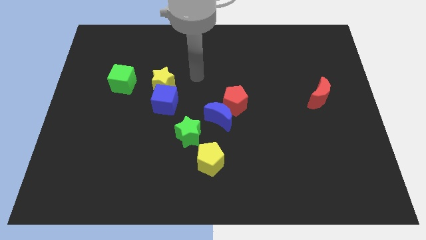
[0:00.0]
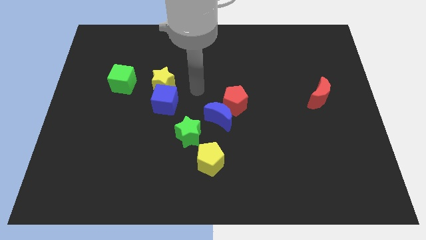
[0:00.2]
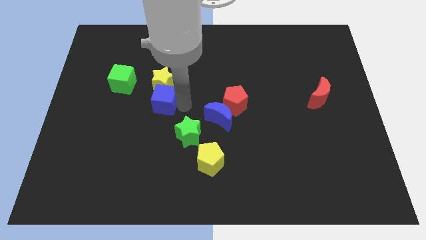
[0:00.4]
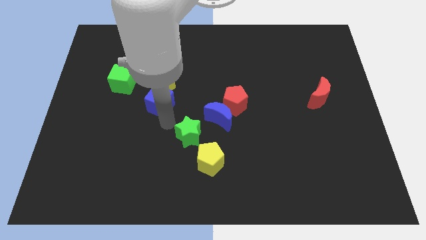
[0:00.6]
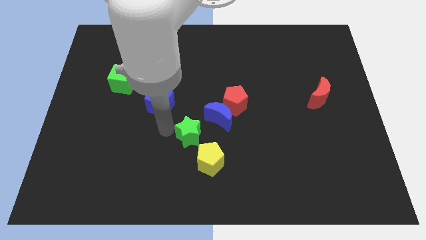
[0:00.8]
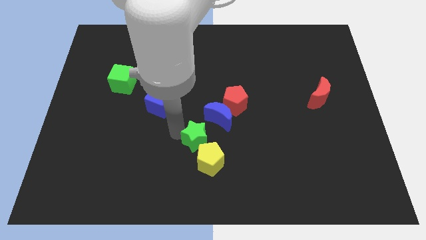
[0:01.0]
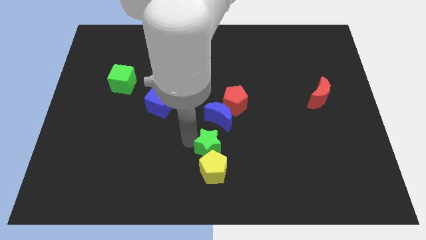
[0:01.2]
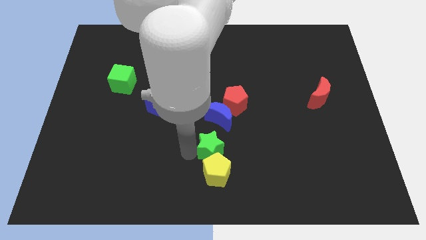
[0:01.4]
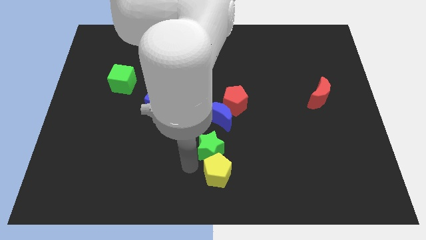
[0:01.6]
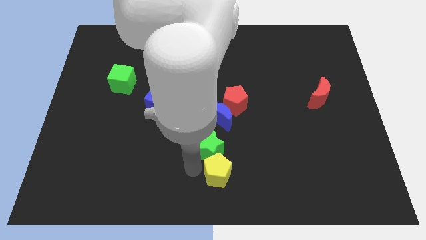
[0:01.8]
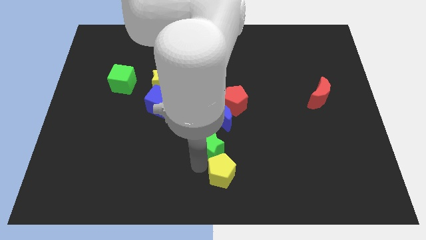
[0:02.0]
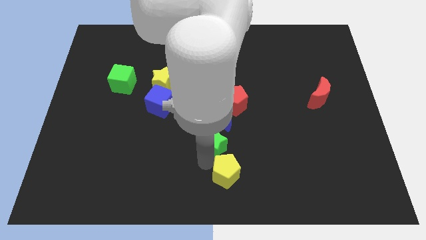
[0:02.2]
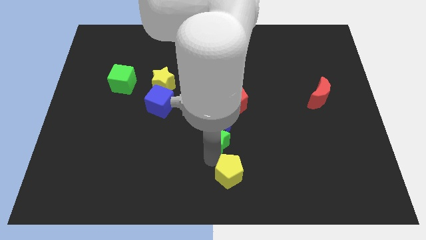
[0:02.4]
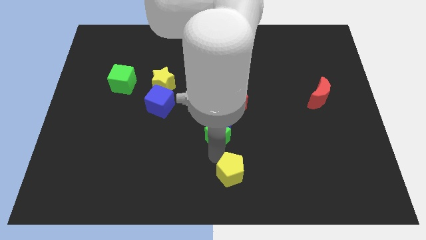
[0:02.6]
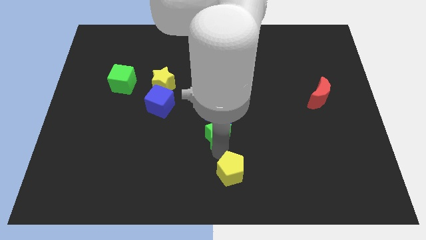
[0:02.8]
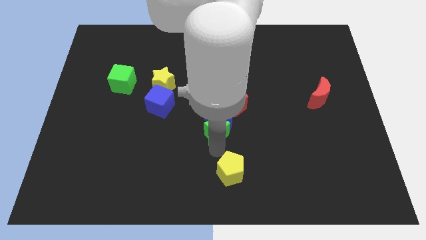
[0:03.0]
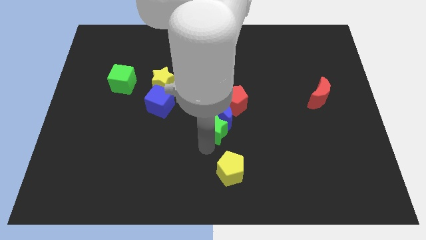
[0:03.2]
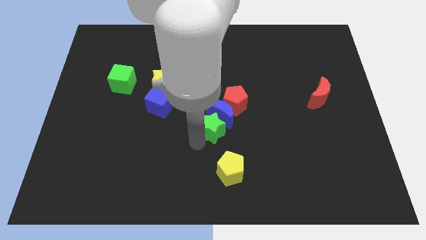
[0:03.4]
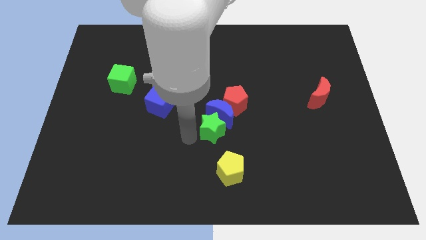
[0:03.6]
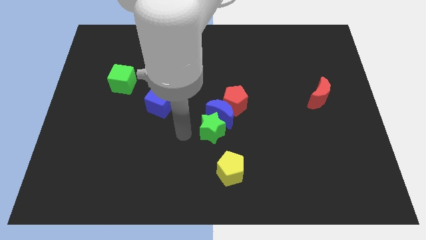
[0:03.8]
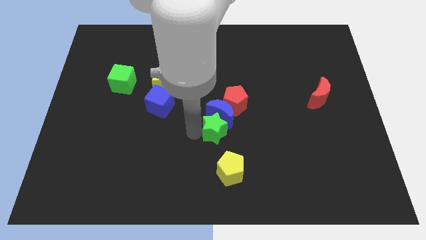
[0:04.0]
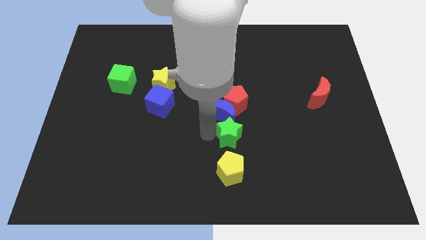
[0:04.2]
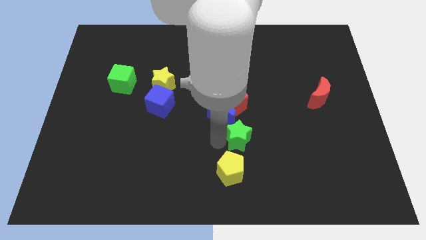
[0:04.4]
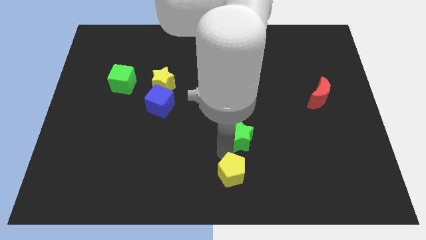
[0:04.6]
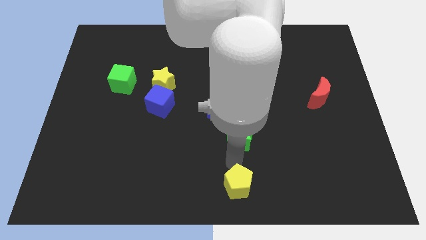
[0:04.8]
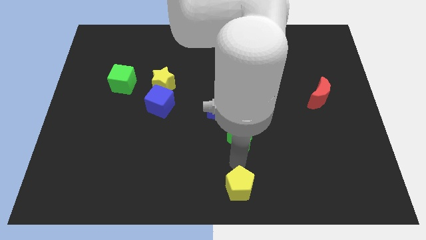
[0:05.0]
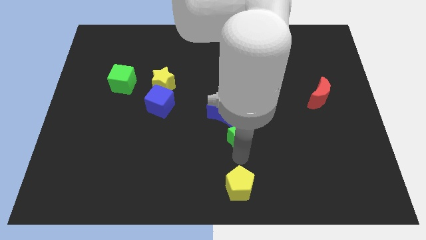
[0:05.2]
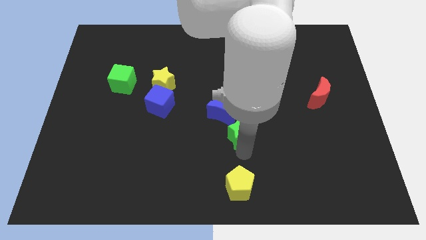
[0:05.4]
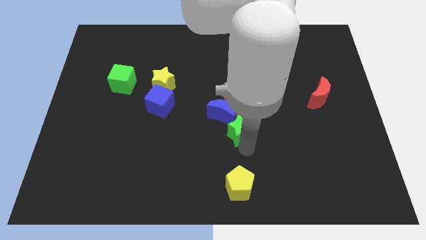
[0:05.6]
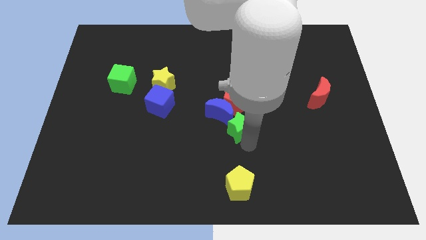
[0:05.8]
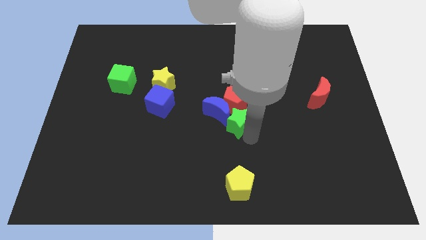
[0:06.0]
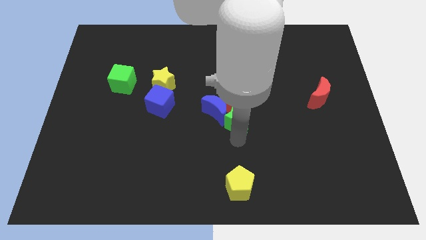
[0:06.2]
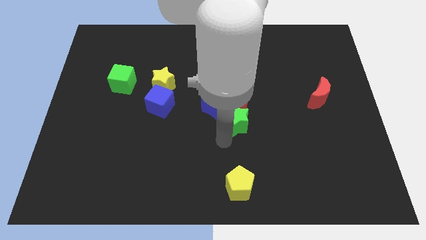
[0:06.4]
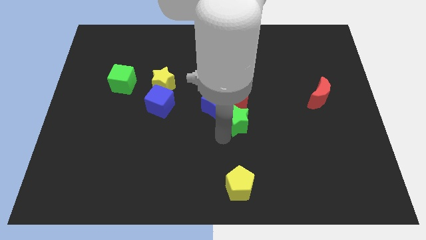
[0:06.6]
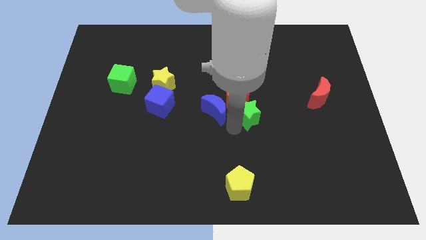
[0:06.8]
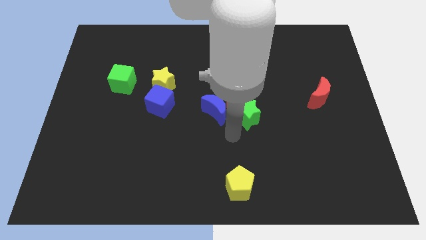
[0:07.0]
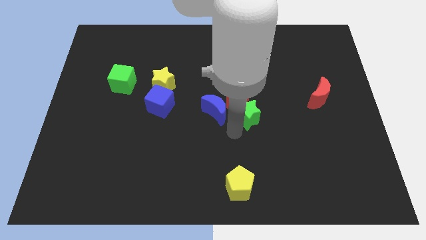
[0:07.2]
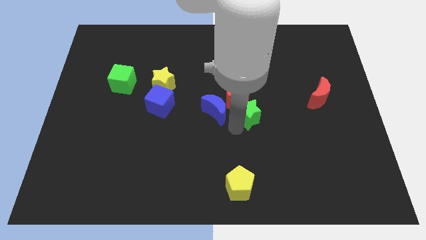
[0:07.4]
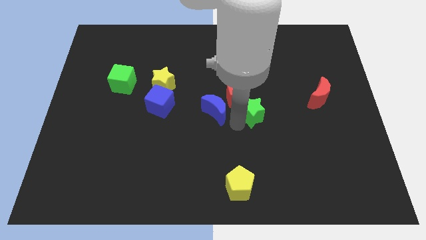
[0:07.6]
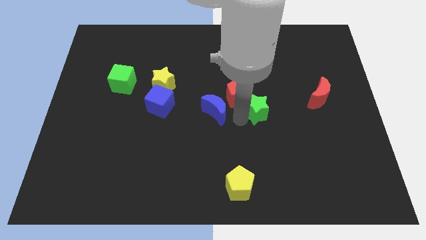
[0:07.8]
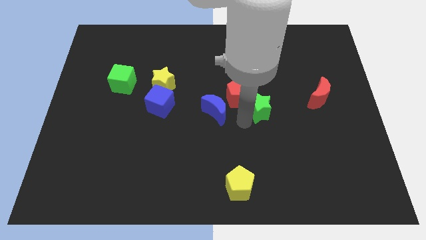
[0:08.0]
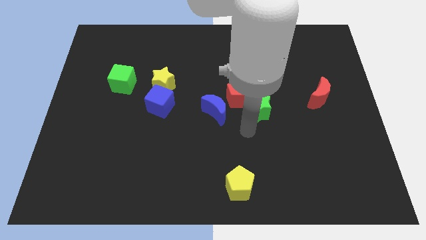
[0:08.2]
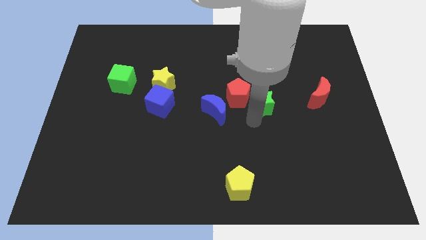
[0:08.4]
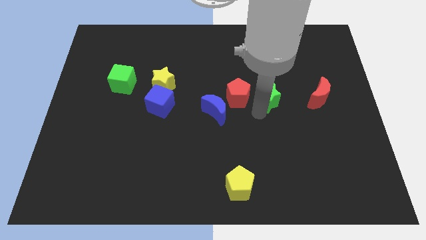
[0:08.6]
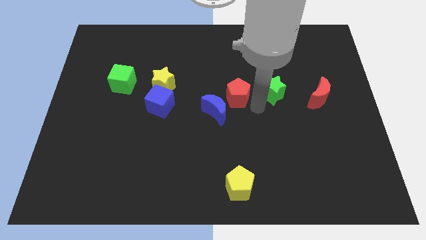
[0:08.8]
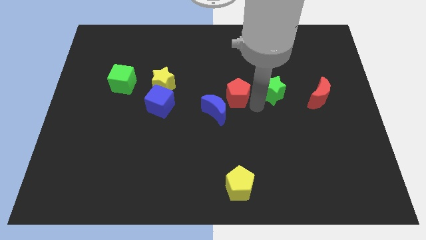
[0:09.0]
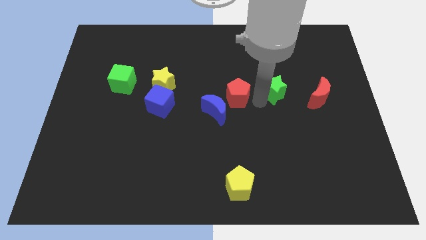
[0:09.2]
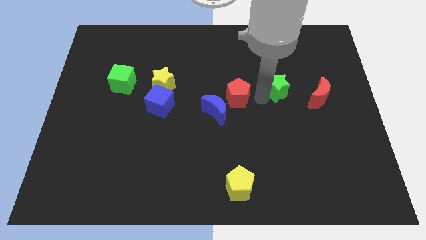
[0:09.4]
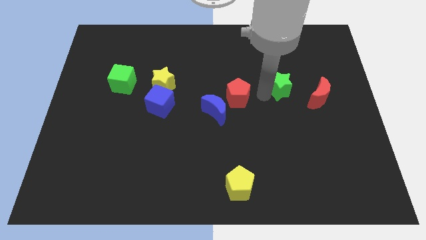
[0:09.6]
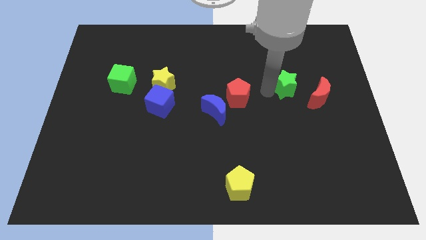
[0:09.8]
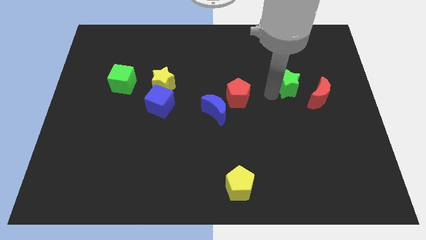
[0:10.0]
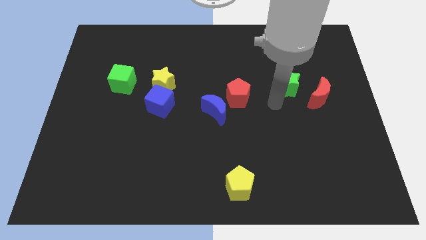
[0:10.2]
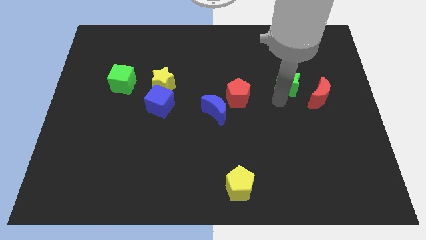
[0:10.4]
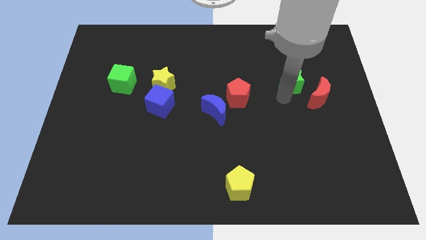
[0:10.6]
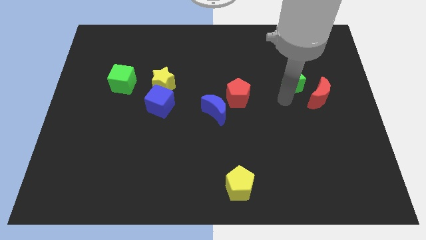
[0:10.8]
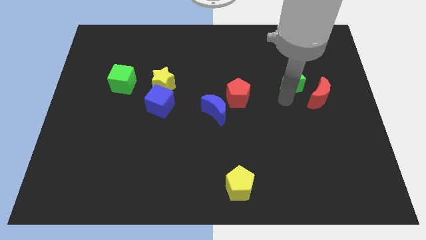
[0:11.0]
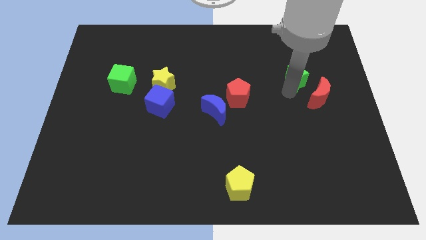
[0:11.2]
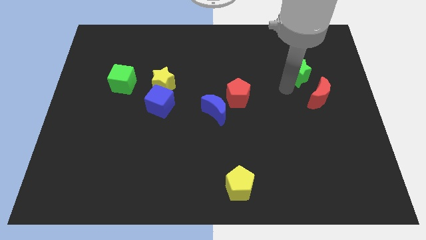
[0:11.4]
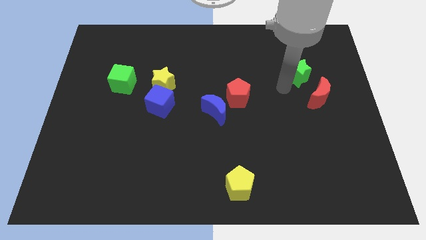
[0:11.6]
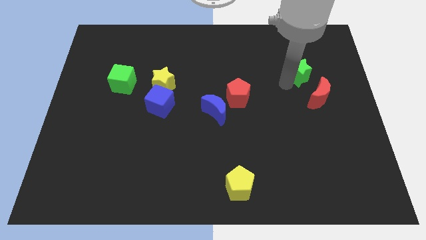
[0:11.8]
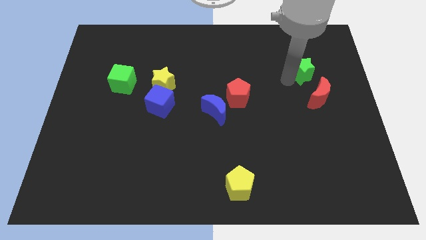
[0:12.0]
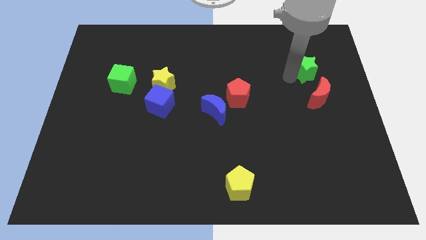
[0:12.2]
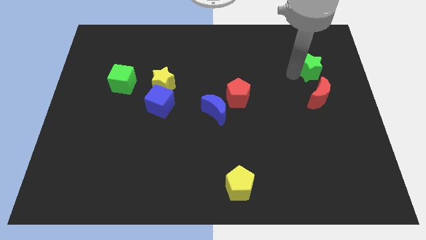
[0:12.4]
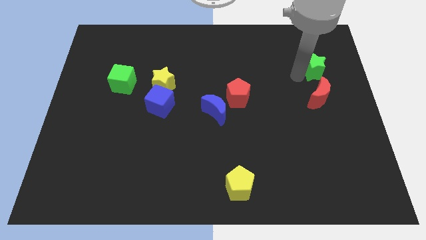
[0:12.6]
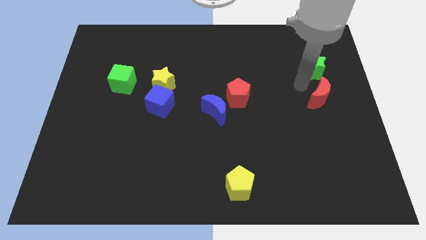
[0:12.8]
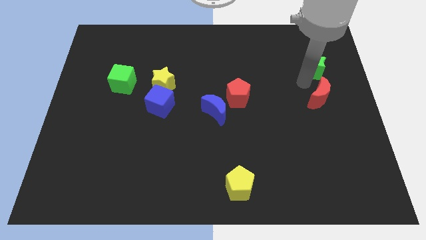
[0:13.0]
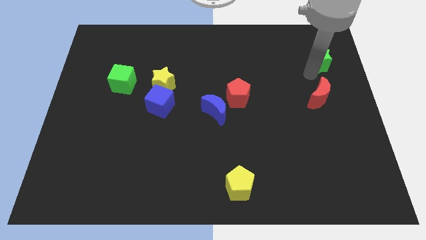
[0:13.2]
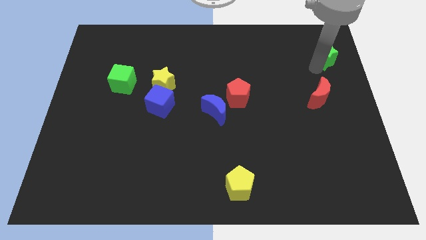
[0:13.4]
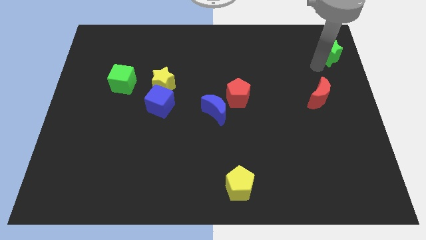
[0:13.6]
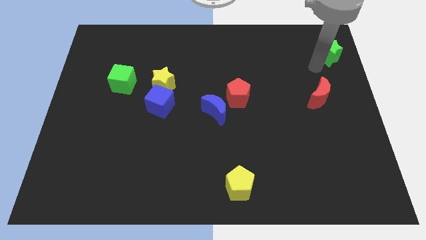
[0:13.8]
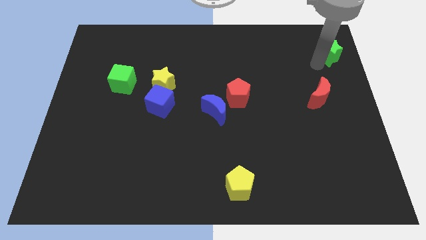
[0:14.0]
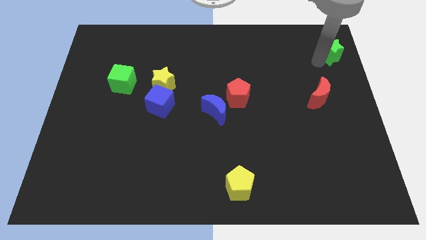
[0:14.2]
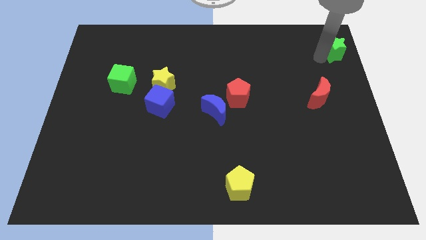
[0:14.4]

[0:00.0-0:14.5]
push the green star to the top right
